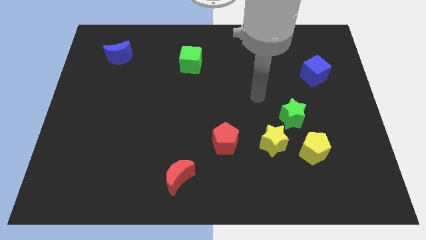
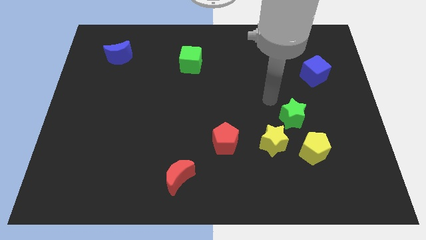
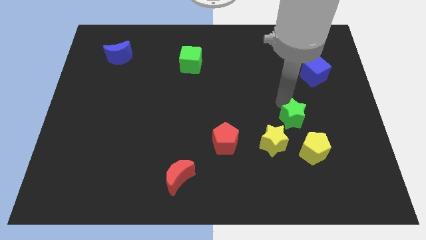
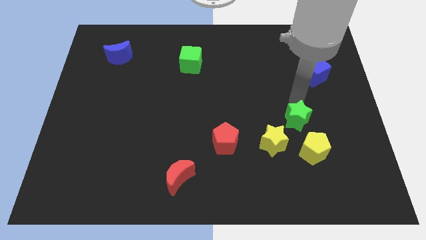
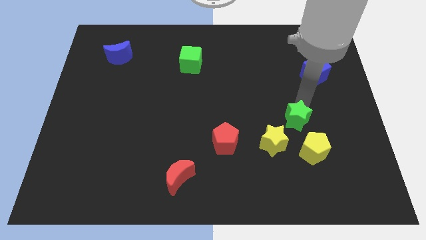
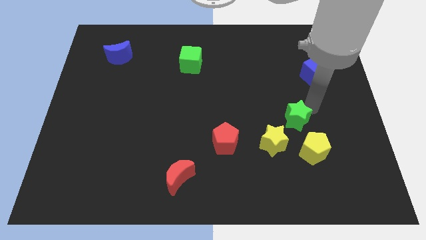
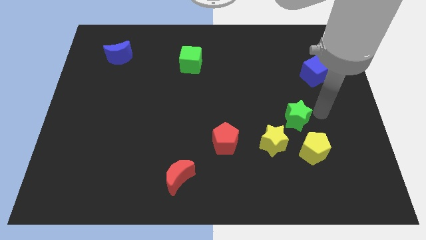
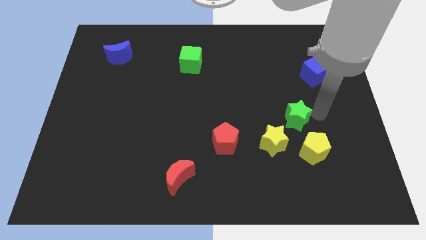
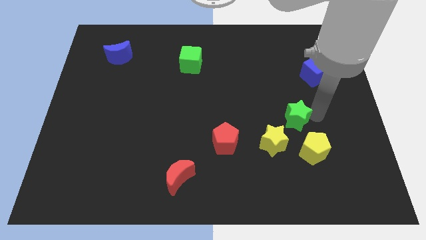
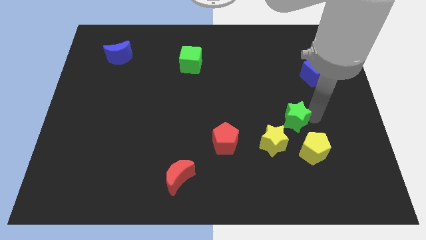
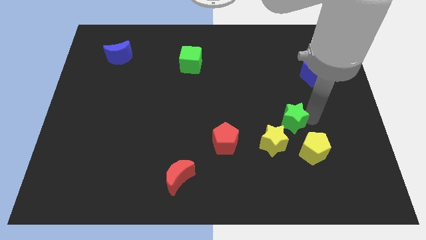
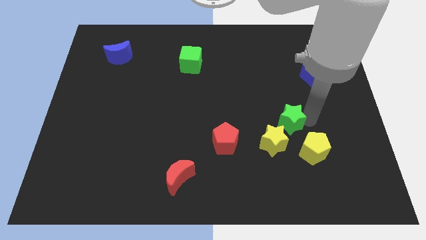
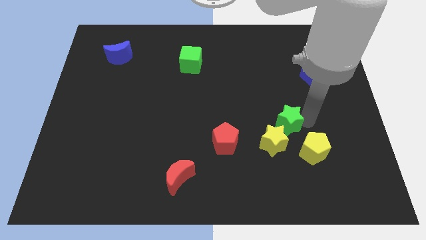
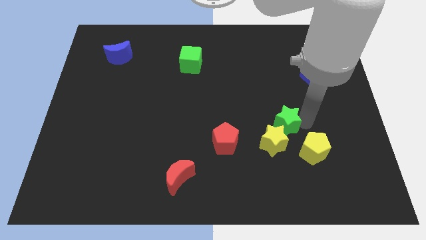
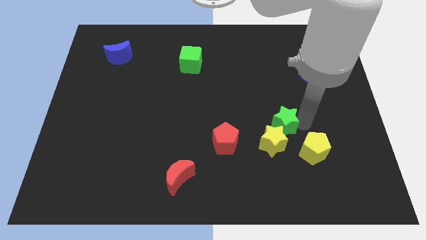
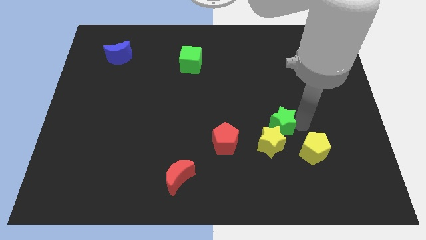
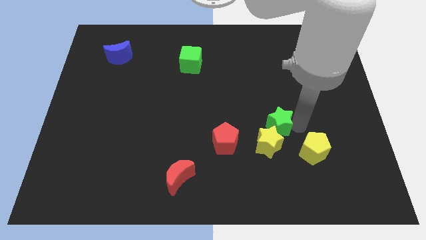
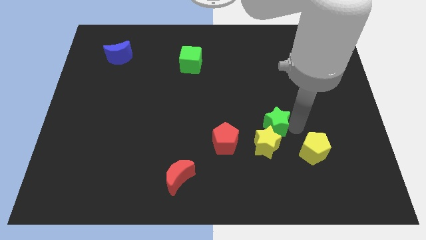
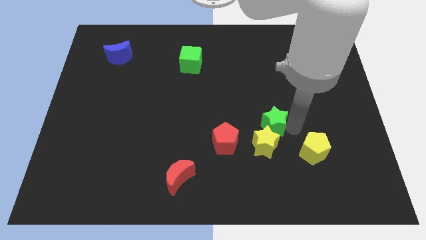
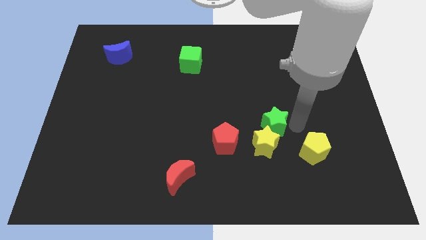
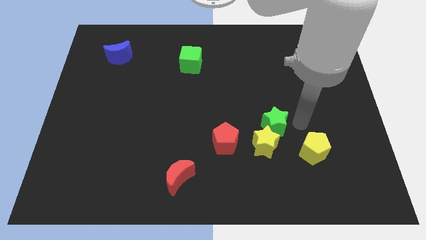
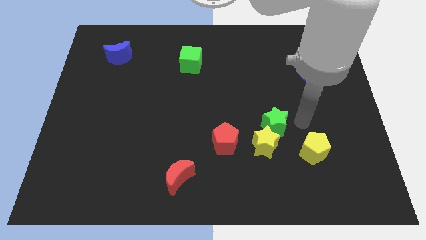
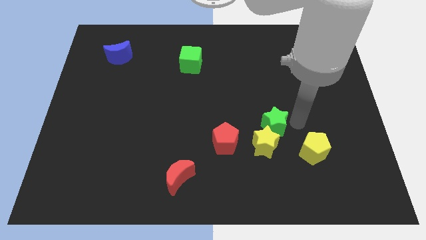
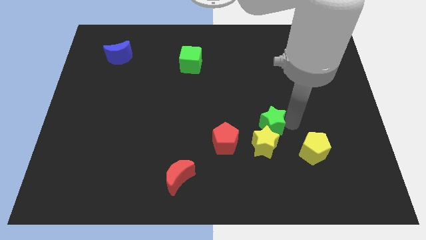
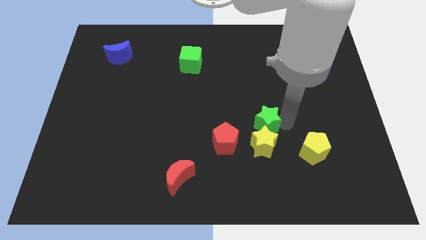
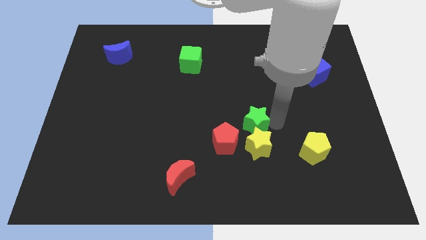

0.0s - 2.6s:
slightly push the green star to the left

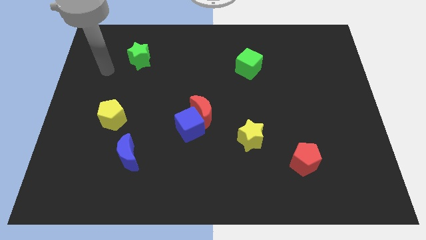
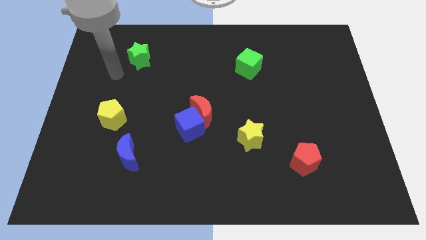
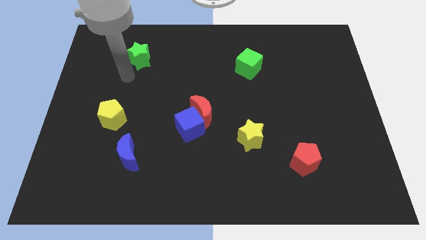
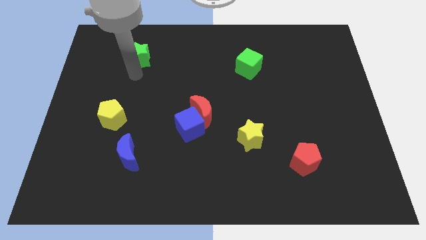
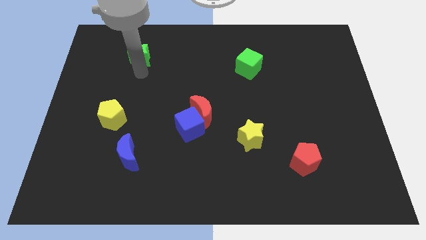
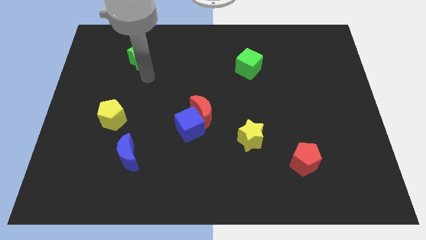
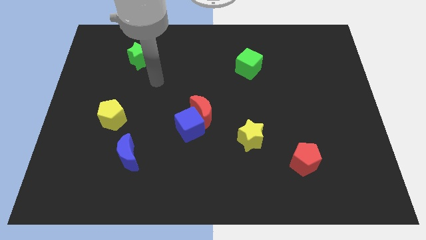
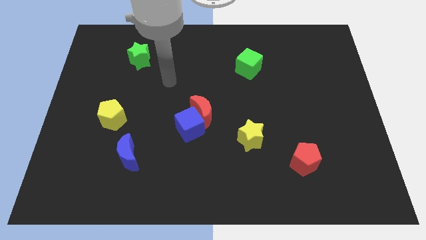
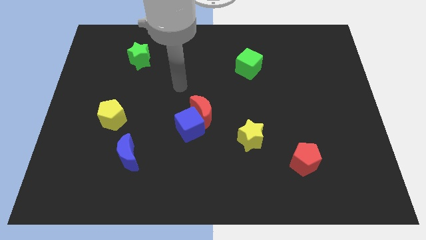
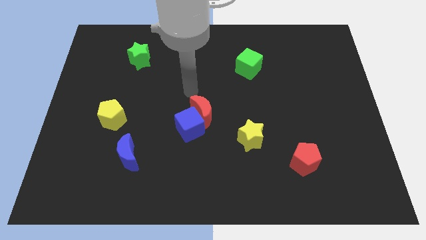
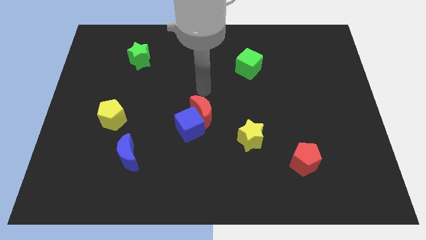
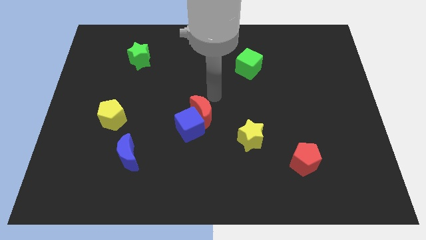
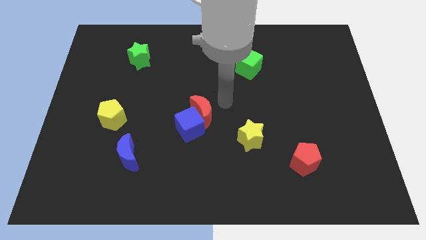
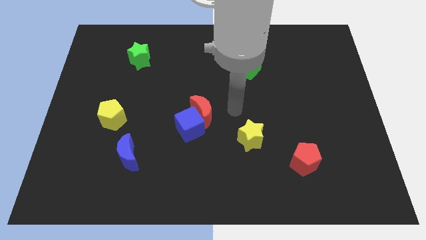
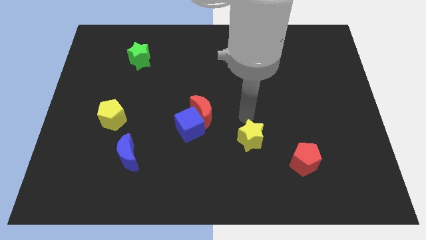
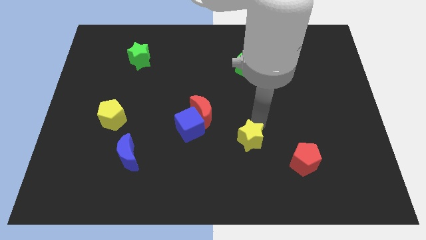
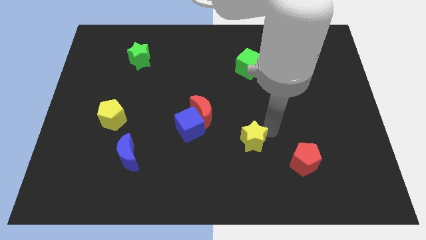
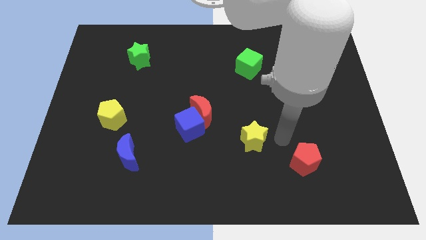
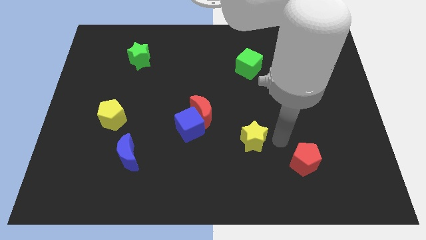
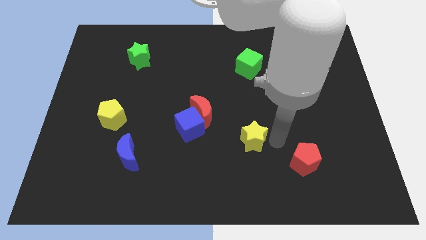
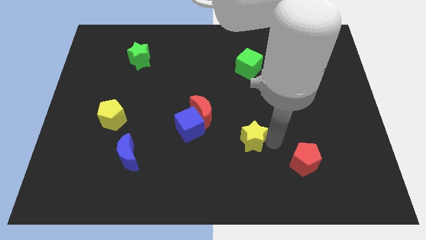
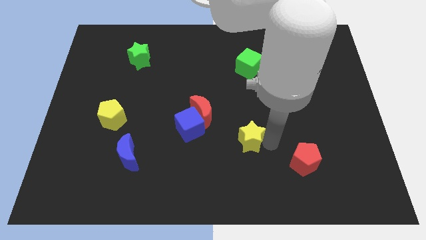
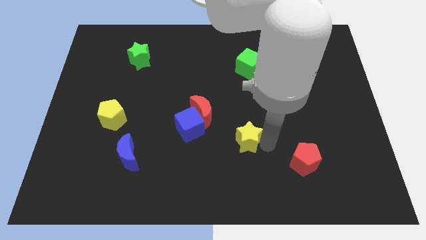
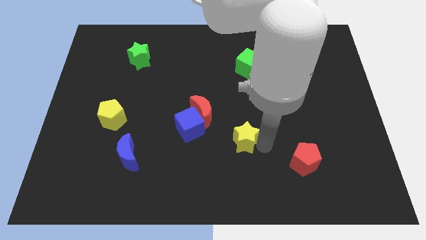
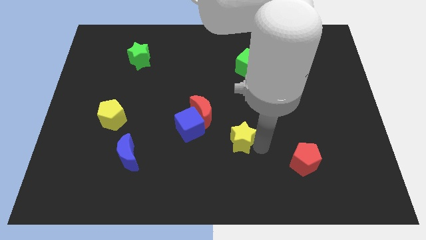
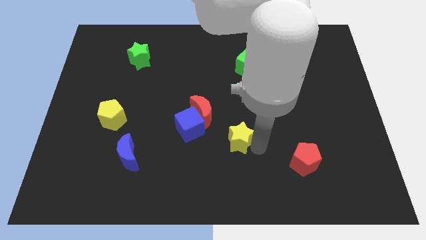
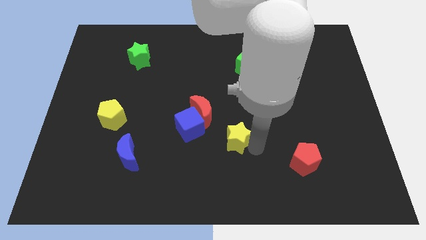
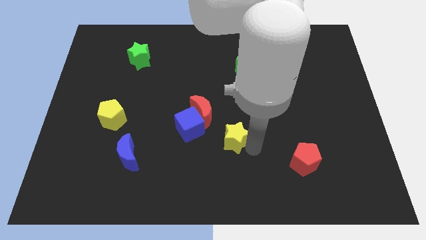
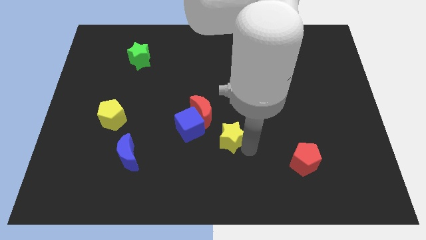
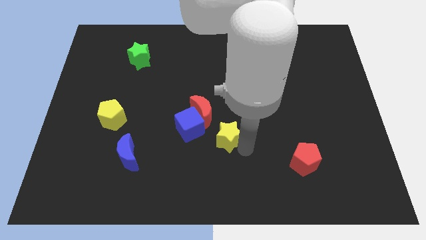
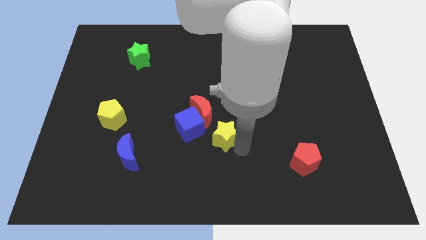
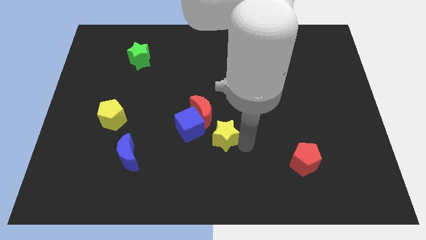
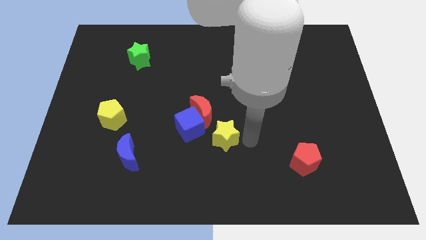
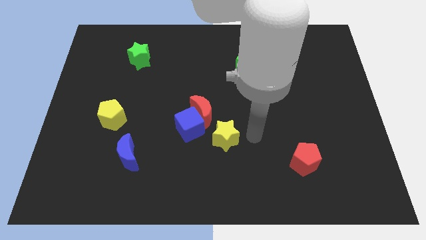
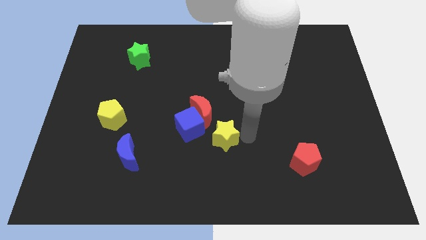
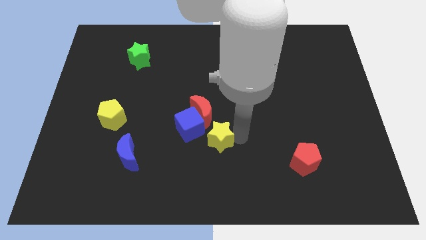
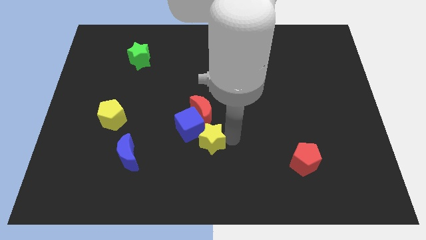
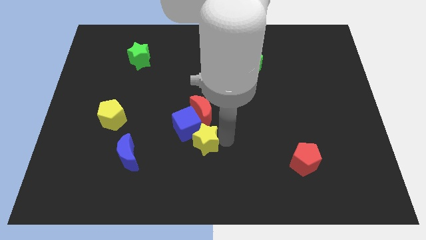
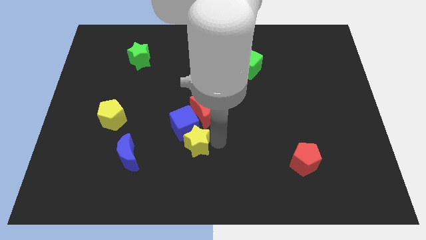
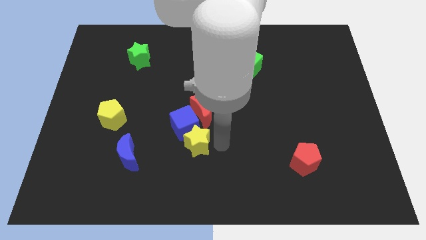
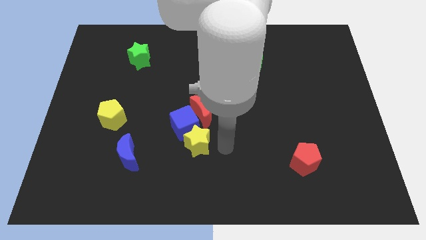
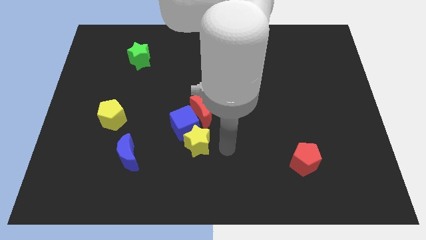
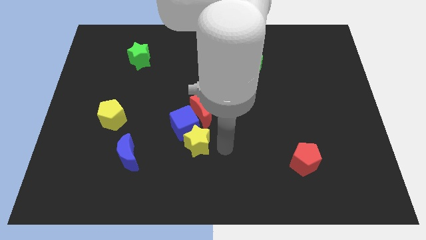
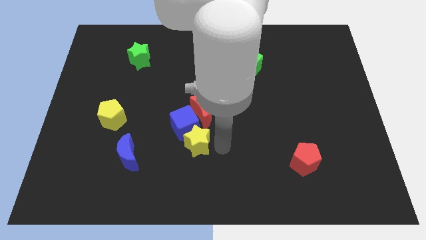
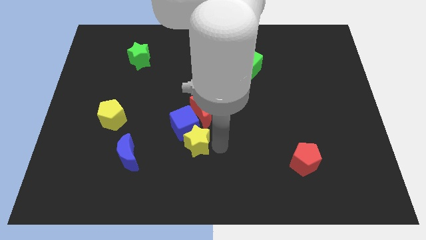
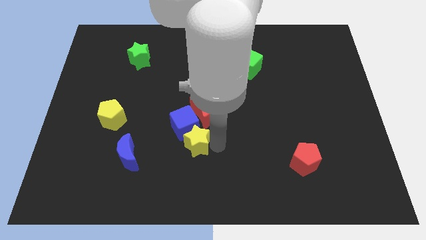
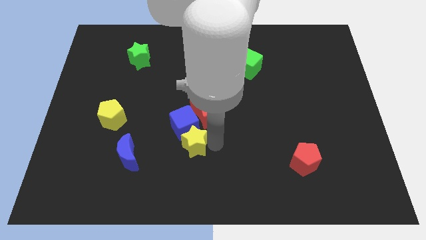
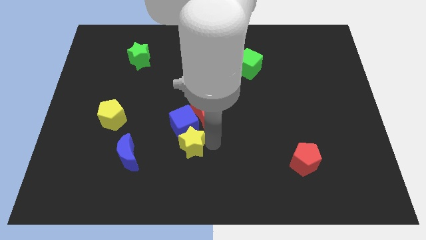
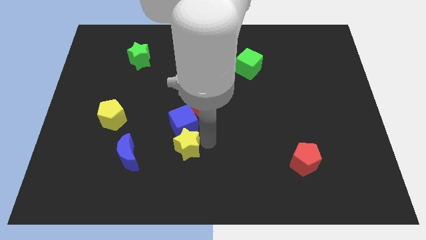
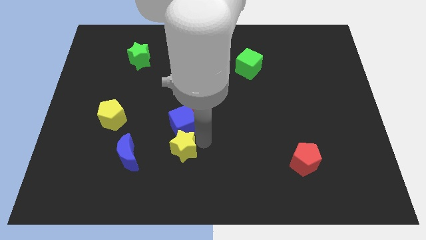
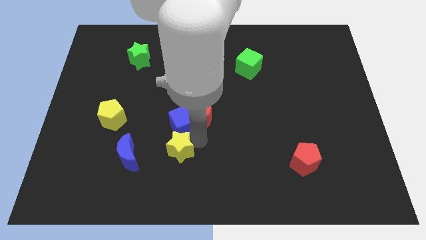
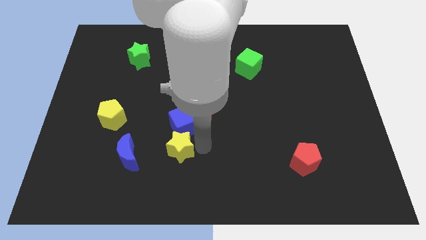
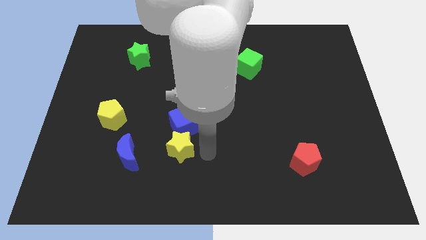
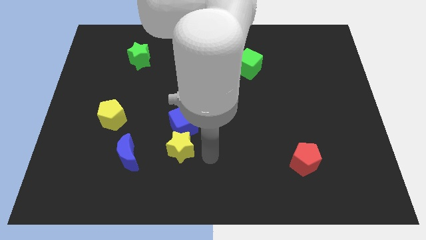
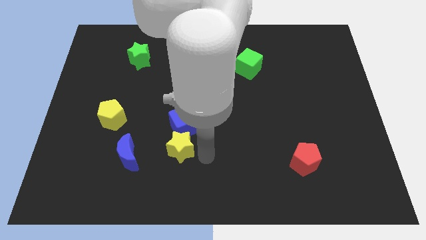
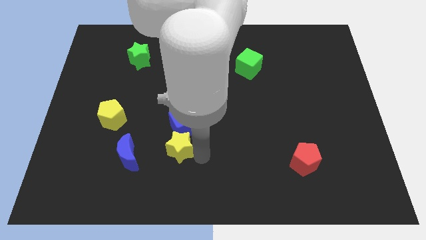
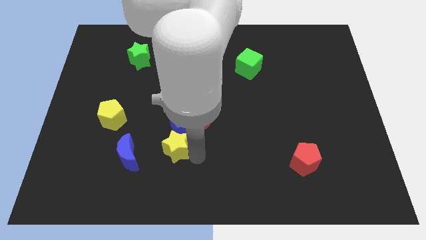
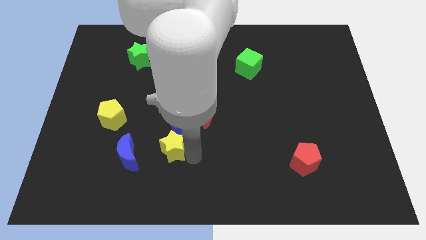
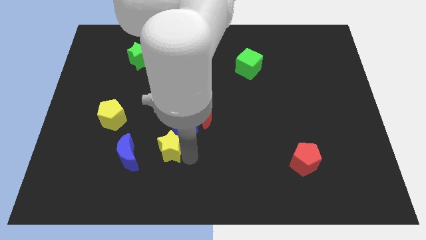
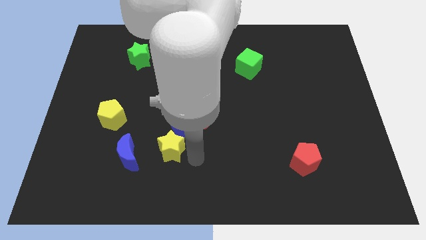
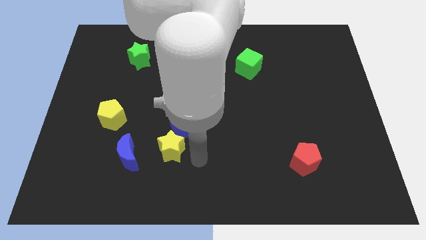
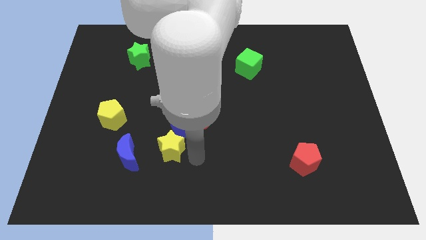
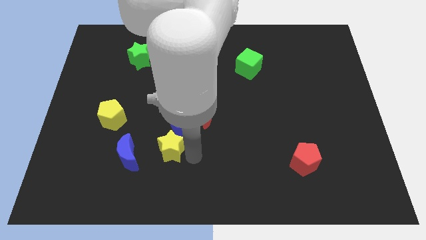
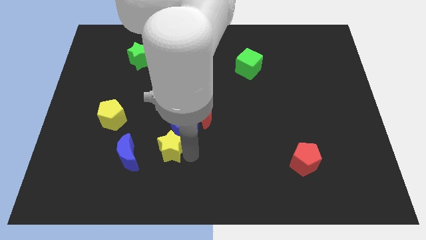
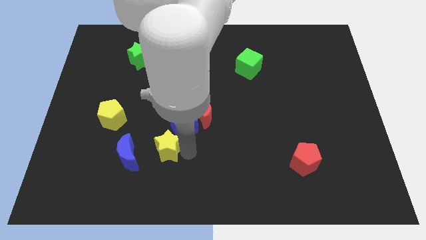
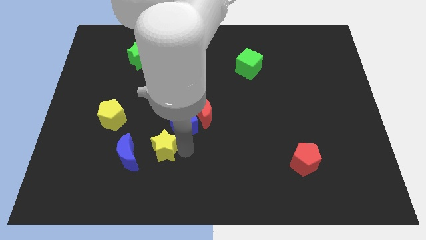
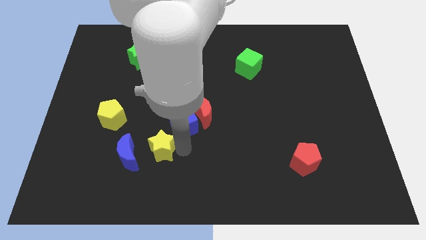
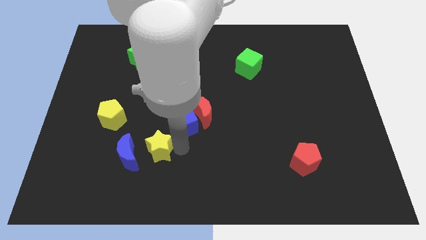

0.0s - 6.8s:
move the yellow star left
